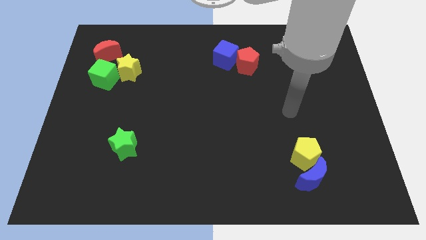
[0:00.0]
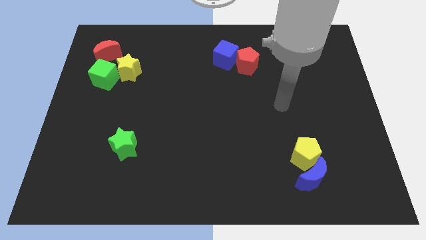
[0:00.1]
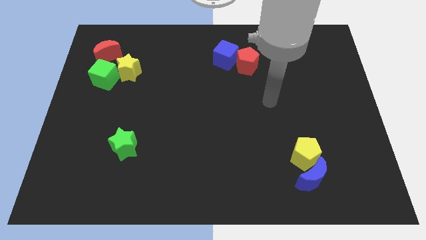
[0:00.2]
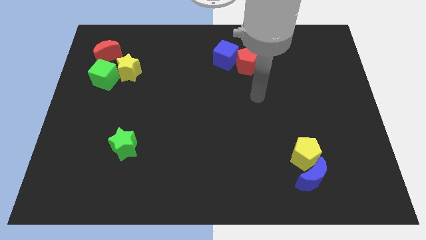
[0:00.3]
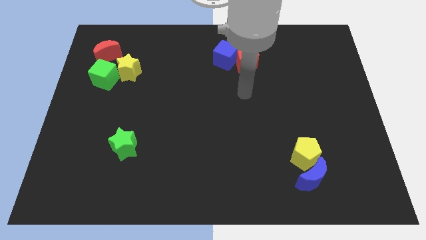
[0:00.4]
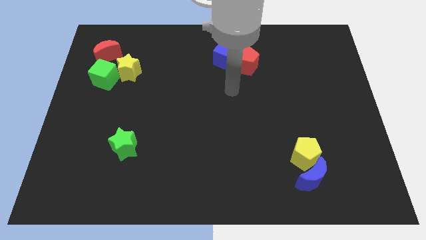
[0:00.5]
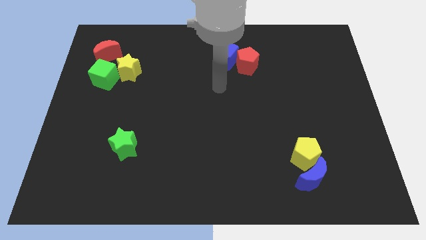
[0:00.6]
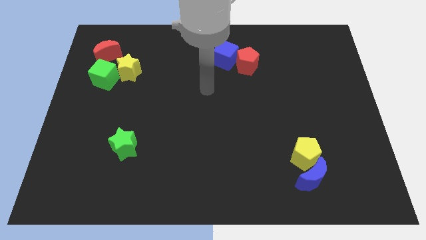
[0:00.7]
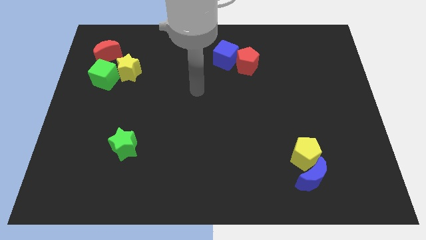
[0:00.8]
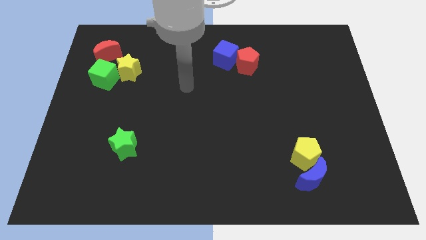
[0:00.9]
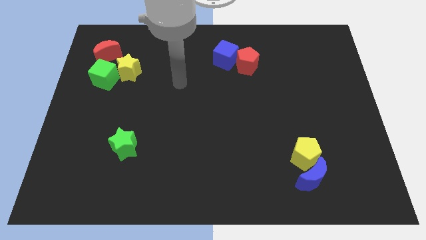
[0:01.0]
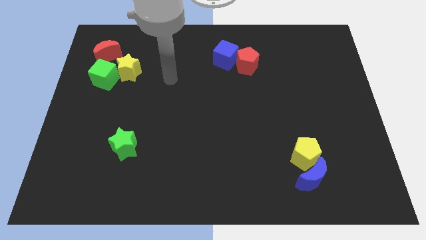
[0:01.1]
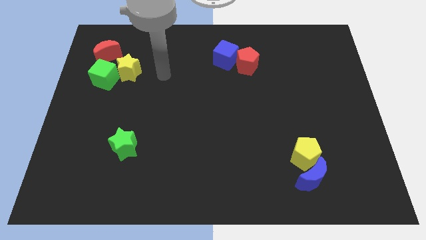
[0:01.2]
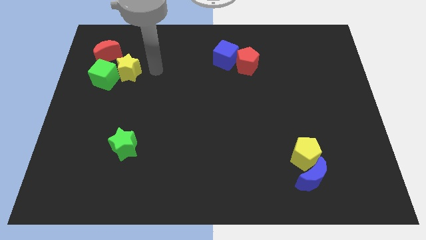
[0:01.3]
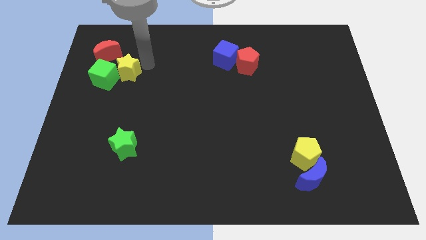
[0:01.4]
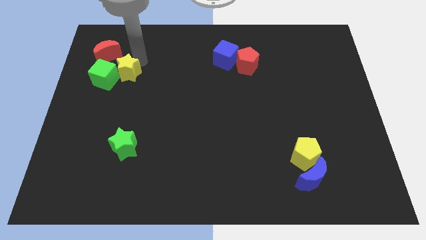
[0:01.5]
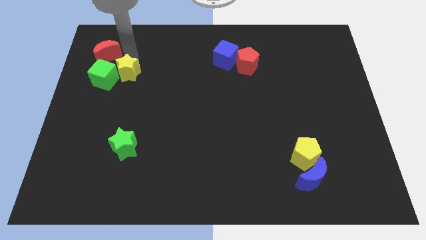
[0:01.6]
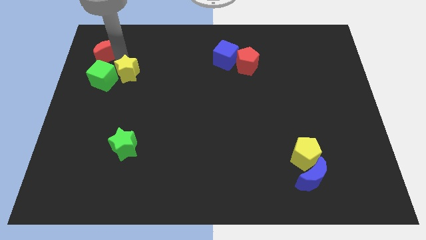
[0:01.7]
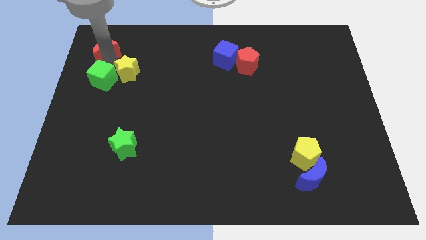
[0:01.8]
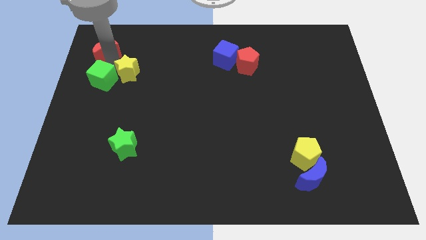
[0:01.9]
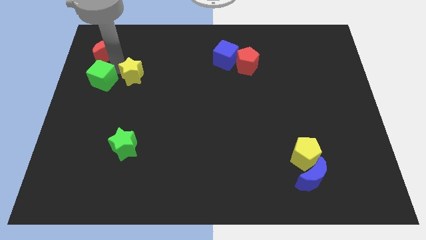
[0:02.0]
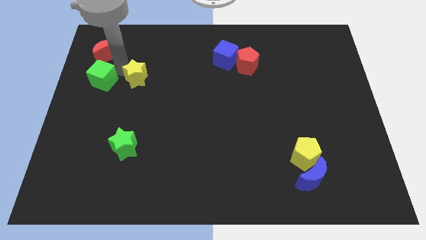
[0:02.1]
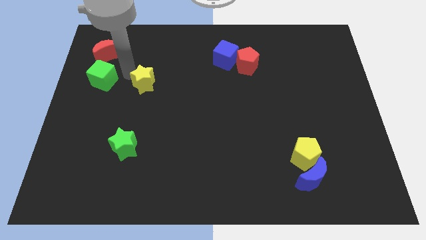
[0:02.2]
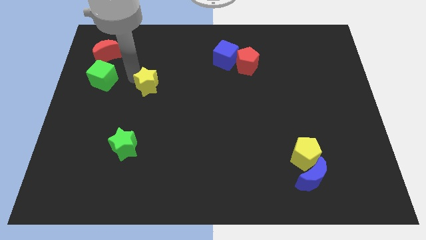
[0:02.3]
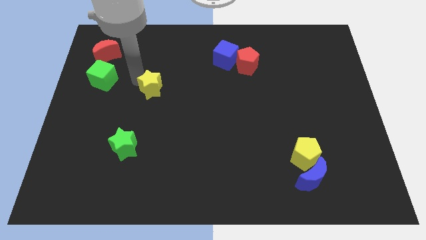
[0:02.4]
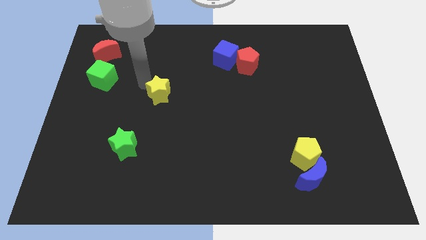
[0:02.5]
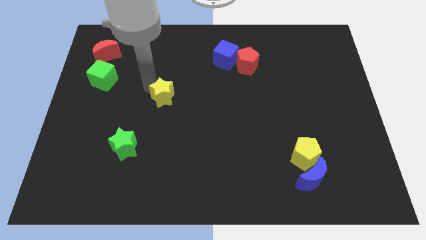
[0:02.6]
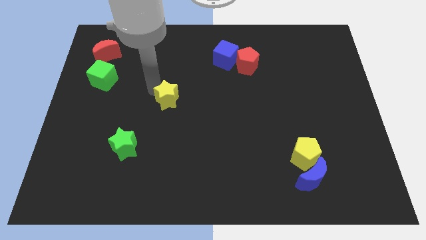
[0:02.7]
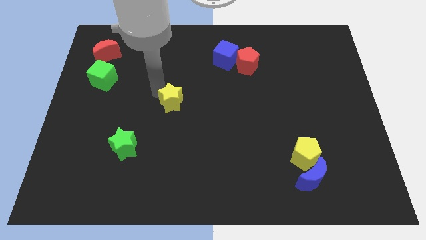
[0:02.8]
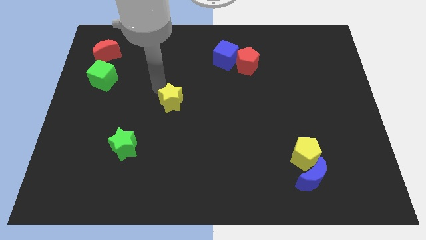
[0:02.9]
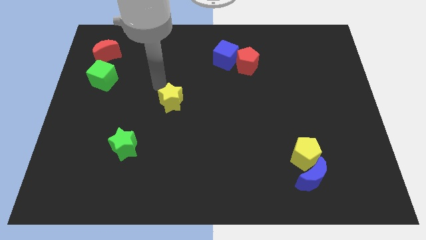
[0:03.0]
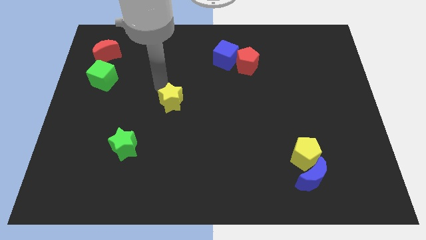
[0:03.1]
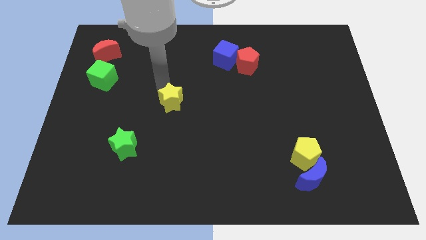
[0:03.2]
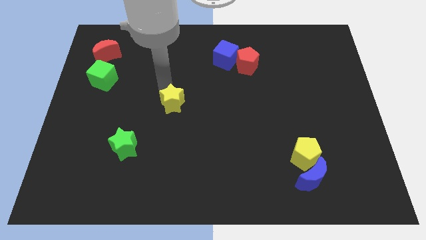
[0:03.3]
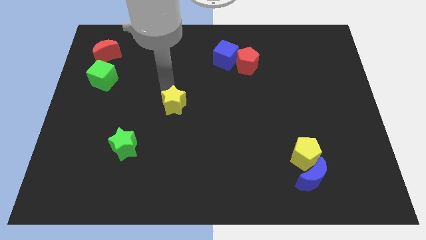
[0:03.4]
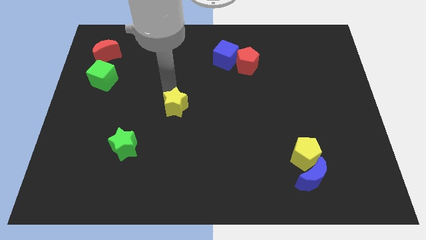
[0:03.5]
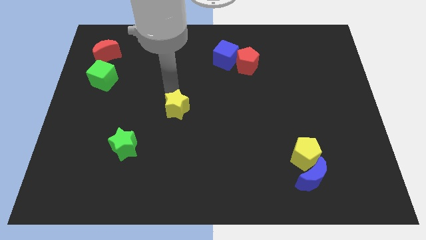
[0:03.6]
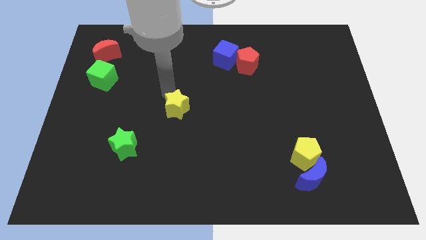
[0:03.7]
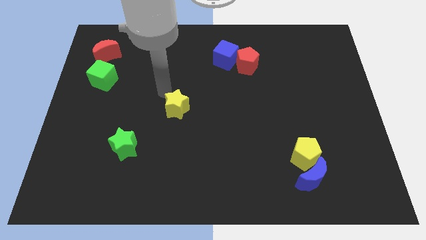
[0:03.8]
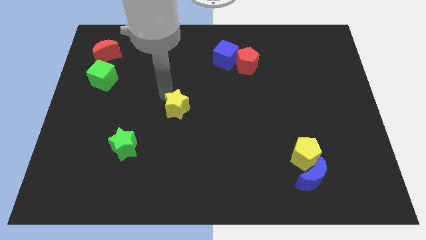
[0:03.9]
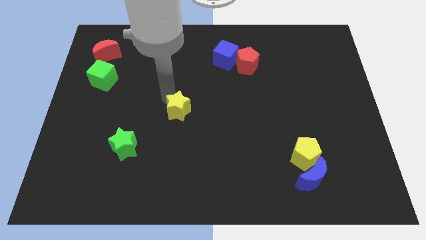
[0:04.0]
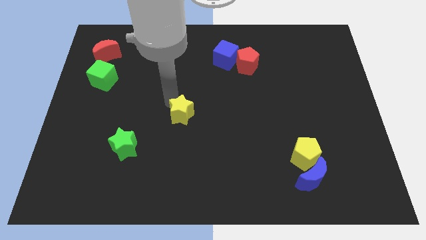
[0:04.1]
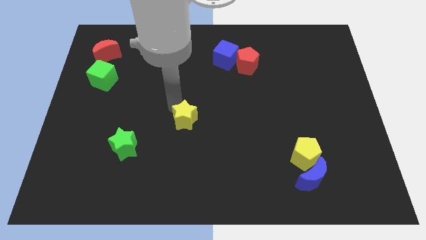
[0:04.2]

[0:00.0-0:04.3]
push the yellow star diagonally downwards and right

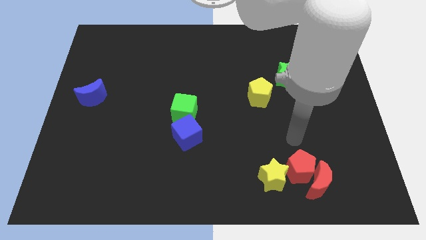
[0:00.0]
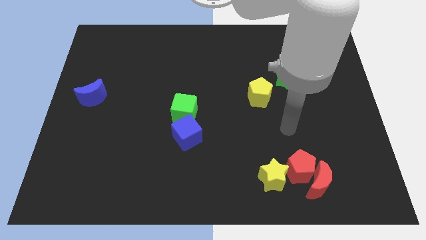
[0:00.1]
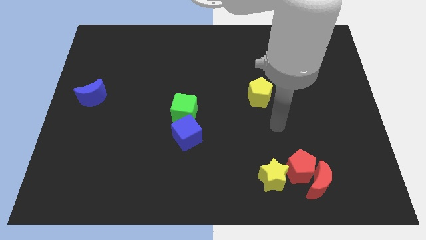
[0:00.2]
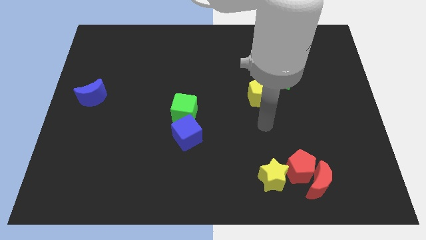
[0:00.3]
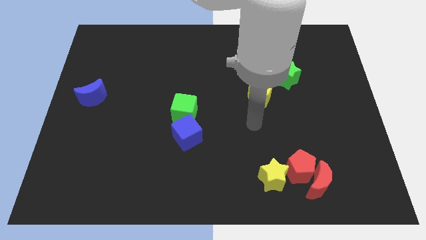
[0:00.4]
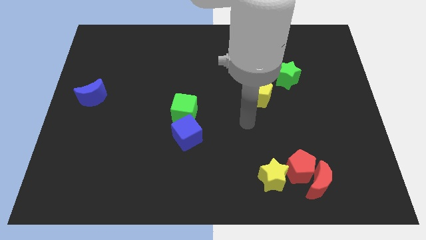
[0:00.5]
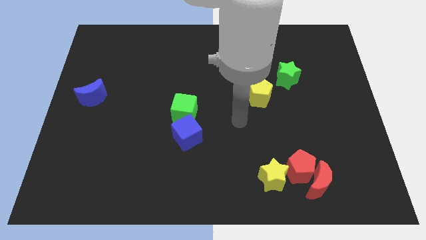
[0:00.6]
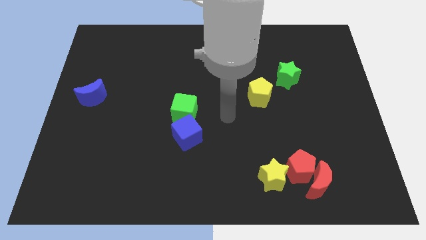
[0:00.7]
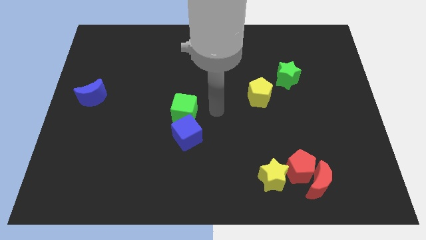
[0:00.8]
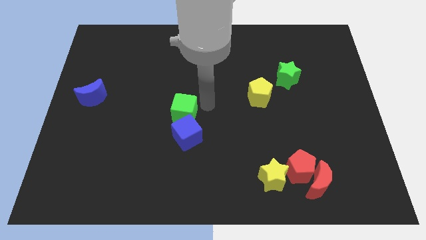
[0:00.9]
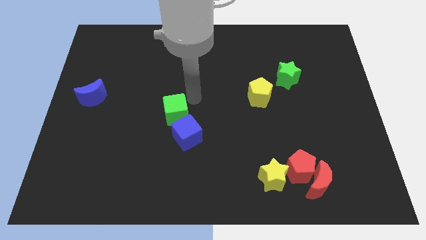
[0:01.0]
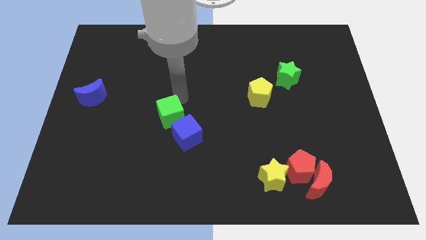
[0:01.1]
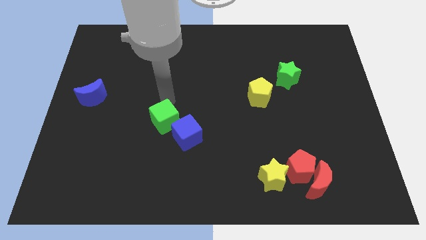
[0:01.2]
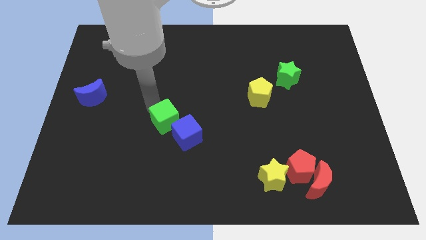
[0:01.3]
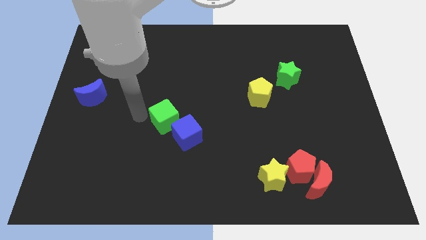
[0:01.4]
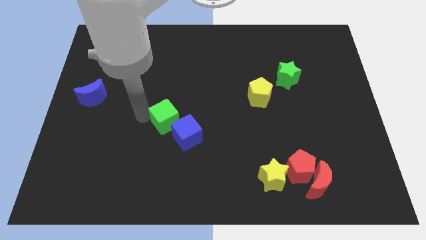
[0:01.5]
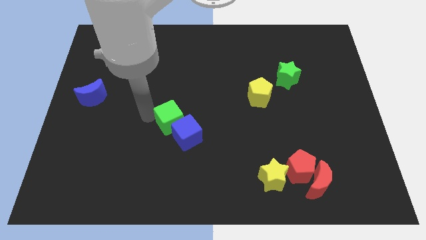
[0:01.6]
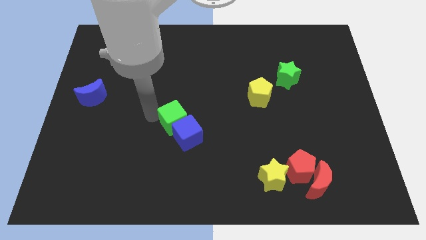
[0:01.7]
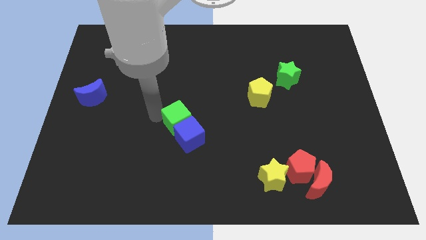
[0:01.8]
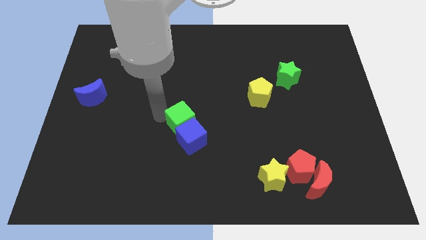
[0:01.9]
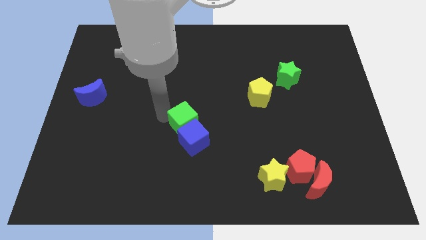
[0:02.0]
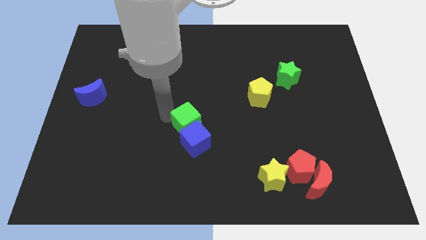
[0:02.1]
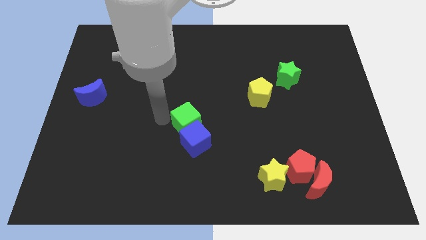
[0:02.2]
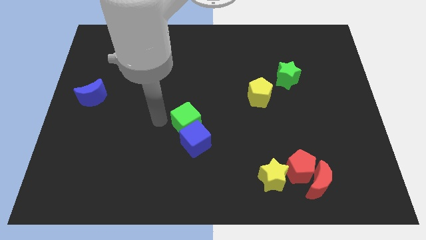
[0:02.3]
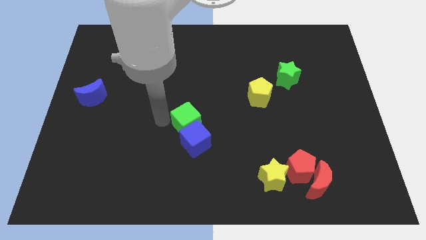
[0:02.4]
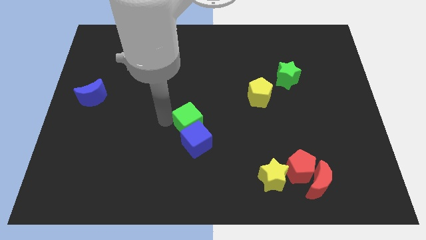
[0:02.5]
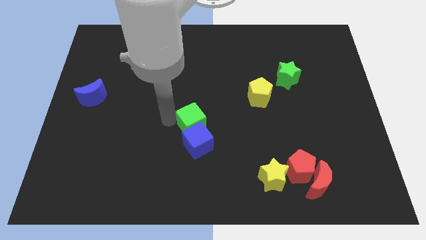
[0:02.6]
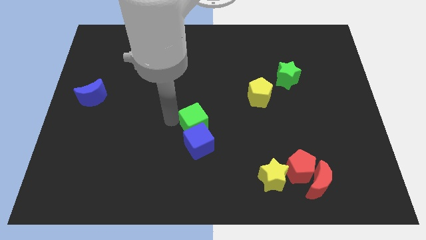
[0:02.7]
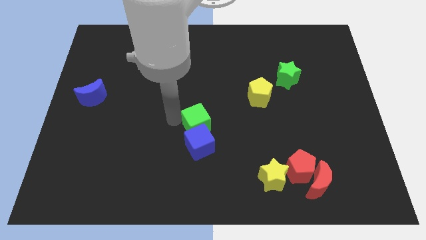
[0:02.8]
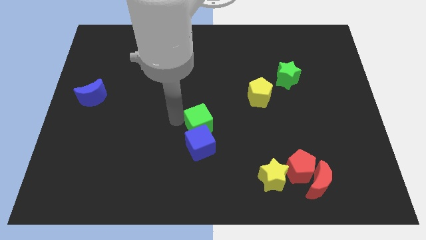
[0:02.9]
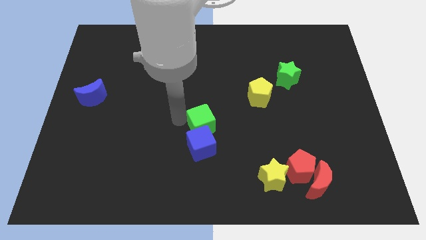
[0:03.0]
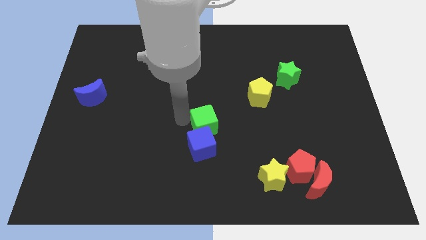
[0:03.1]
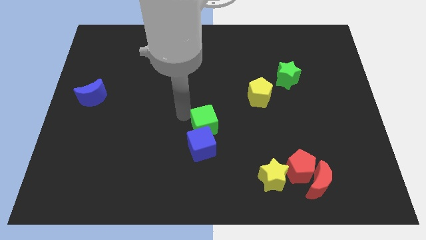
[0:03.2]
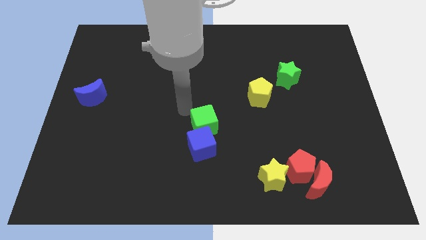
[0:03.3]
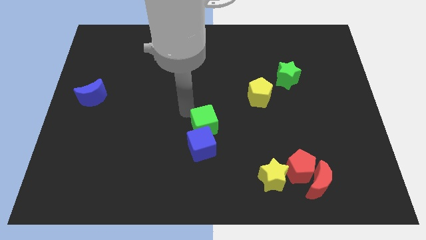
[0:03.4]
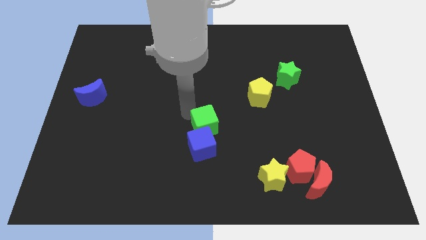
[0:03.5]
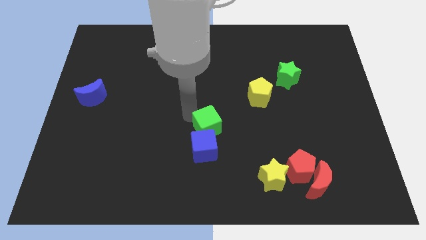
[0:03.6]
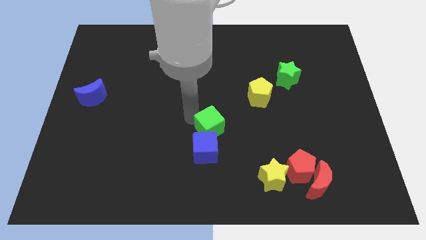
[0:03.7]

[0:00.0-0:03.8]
slide the green cube a little downwards and to the right diagonally
